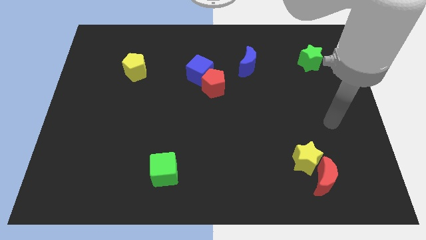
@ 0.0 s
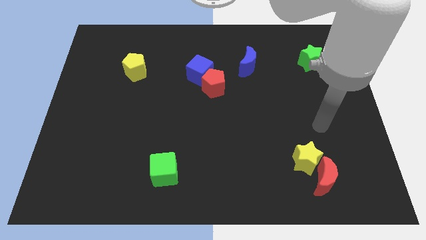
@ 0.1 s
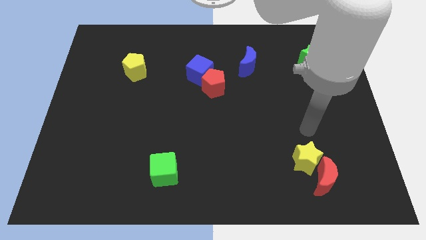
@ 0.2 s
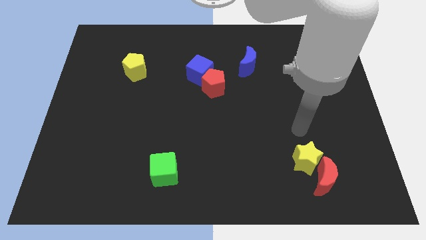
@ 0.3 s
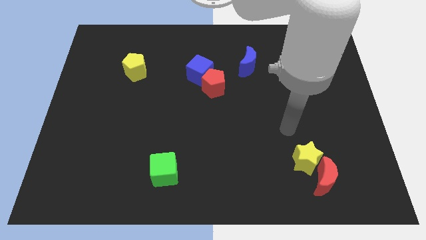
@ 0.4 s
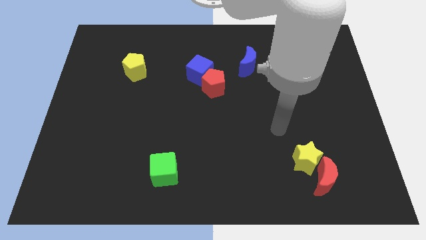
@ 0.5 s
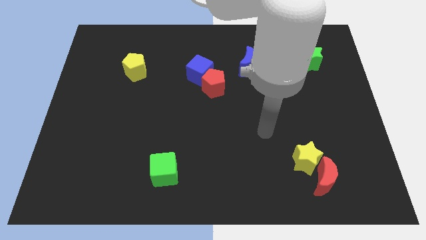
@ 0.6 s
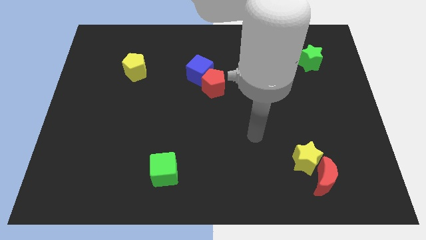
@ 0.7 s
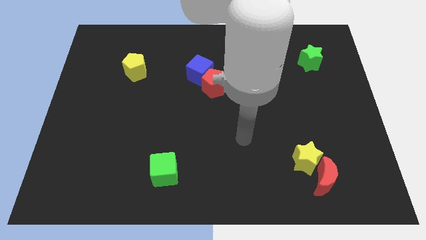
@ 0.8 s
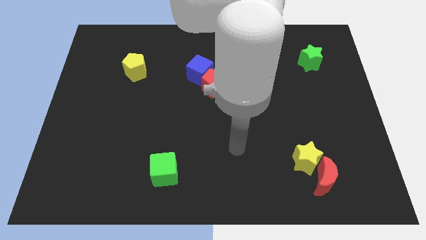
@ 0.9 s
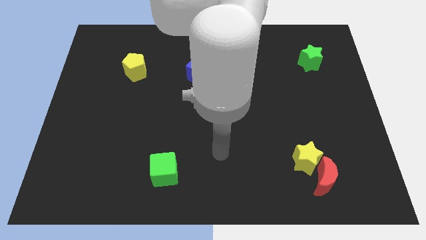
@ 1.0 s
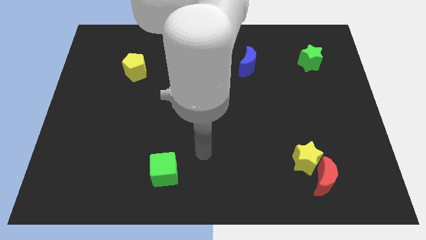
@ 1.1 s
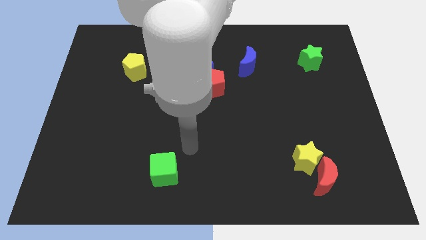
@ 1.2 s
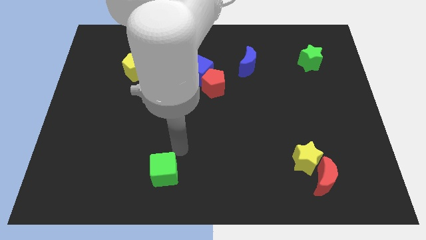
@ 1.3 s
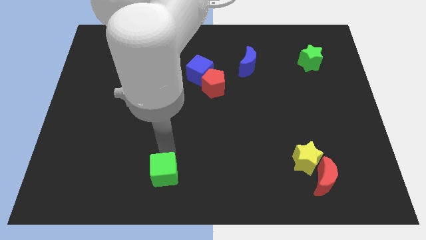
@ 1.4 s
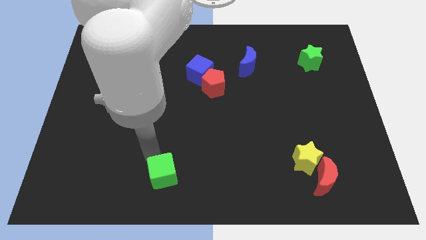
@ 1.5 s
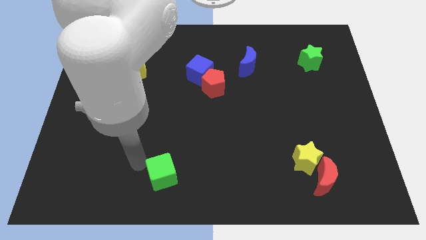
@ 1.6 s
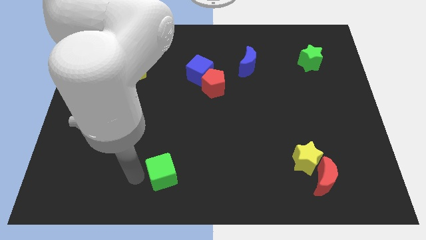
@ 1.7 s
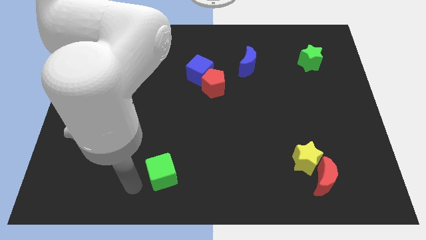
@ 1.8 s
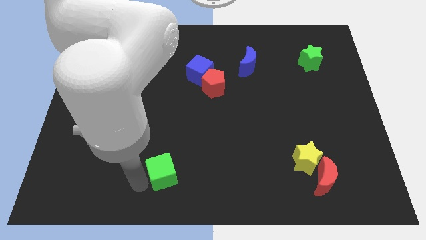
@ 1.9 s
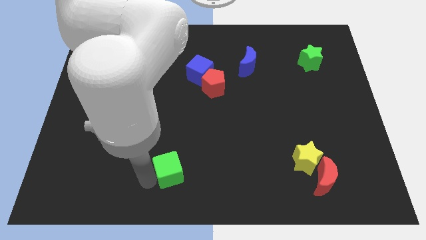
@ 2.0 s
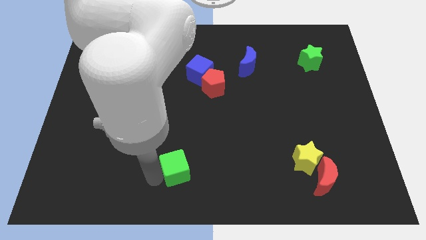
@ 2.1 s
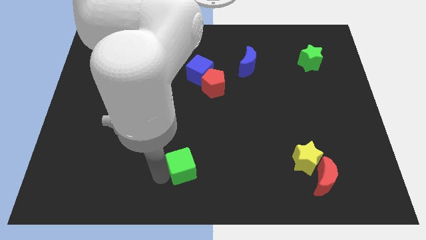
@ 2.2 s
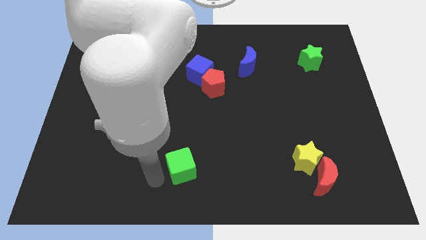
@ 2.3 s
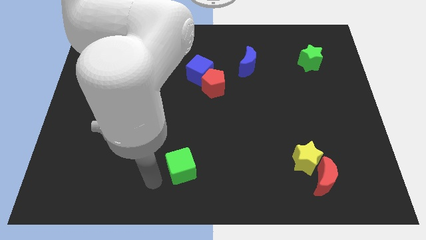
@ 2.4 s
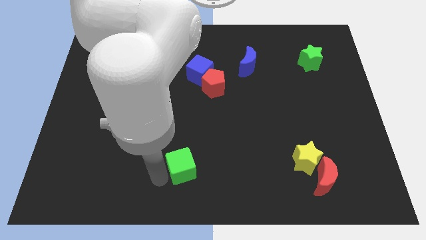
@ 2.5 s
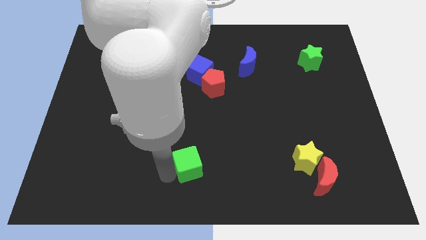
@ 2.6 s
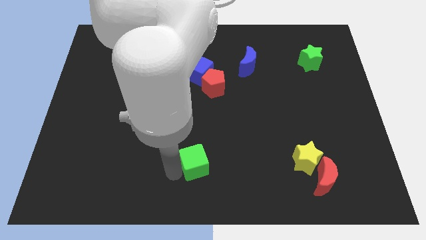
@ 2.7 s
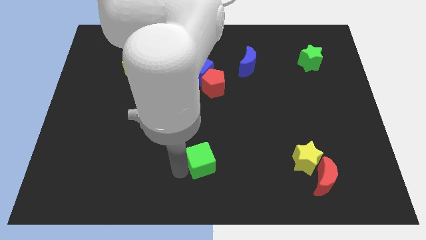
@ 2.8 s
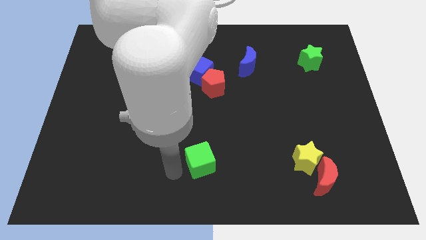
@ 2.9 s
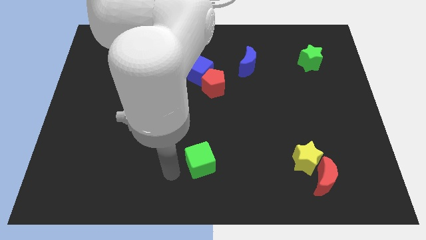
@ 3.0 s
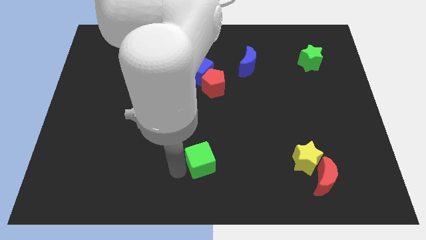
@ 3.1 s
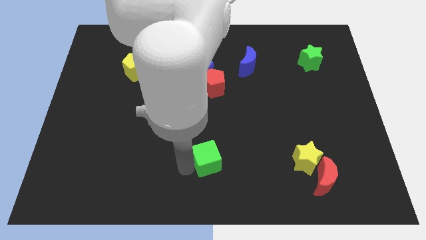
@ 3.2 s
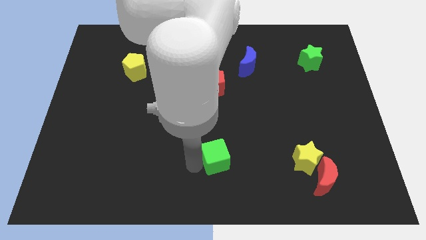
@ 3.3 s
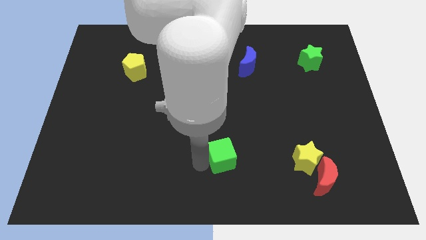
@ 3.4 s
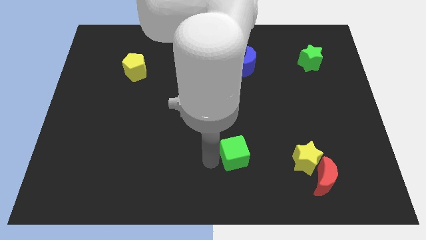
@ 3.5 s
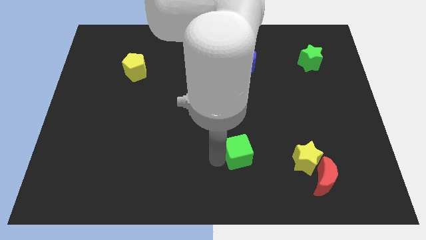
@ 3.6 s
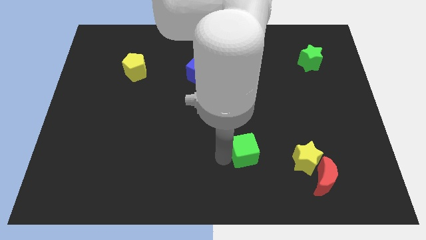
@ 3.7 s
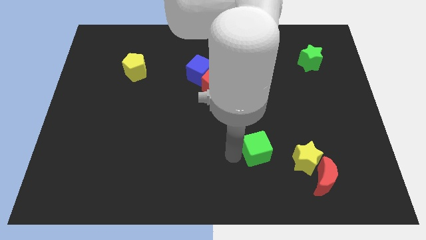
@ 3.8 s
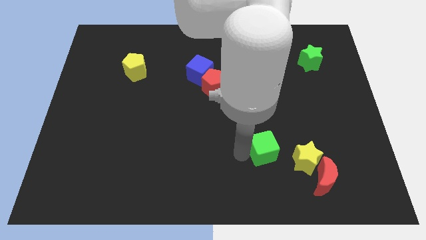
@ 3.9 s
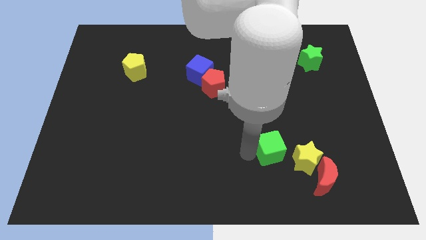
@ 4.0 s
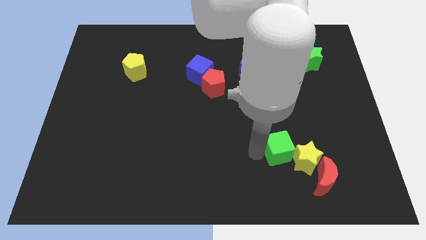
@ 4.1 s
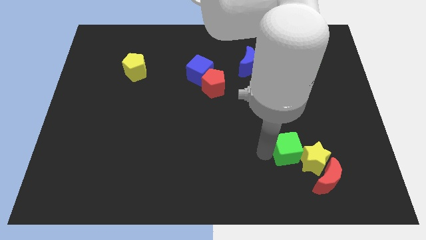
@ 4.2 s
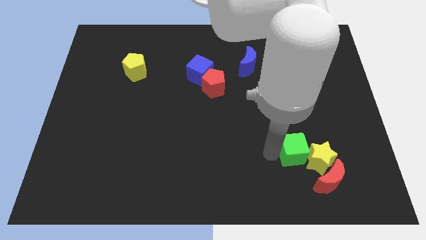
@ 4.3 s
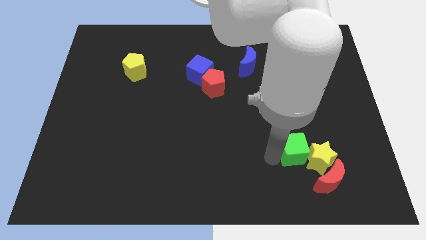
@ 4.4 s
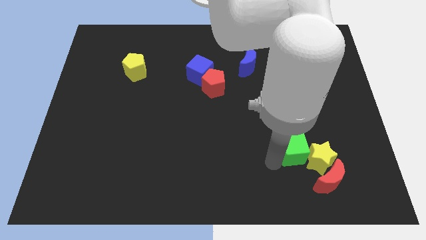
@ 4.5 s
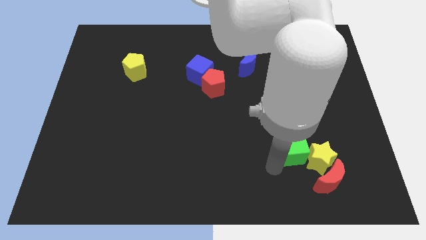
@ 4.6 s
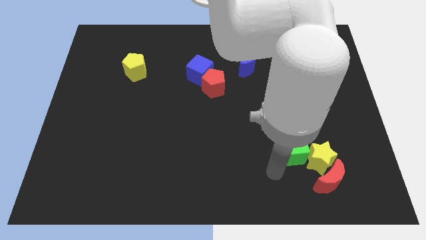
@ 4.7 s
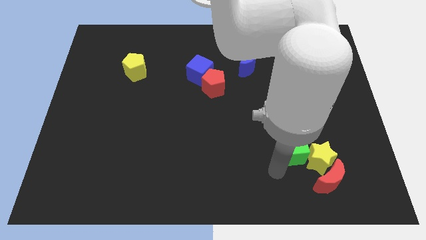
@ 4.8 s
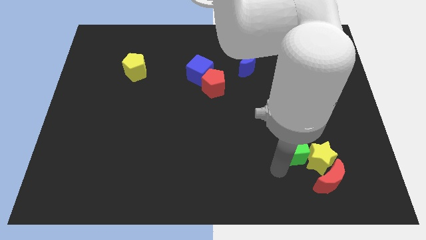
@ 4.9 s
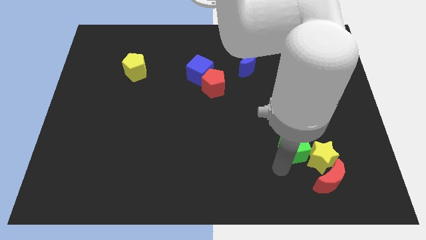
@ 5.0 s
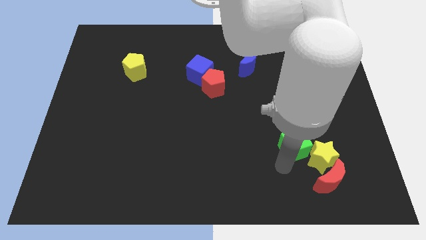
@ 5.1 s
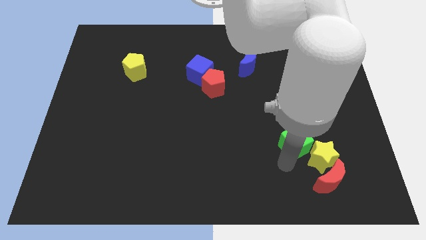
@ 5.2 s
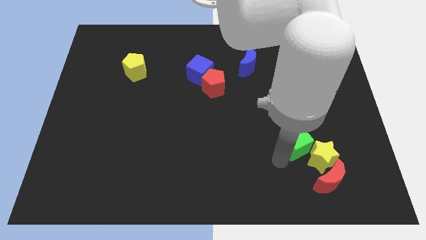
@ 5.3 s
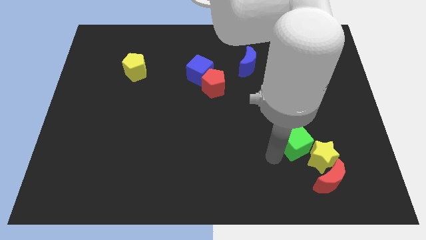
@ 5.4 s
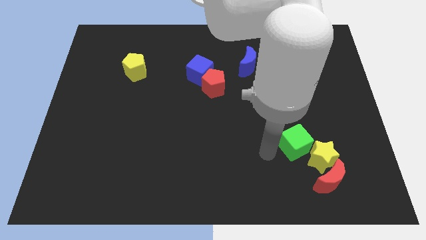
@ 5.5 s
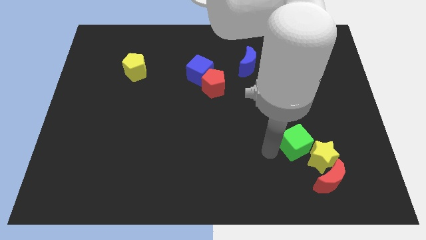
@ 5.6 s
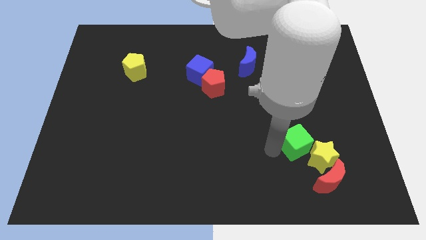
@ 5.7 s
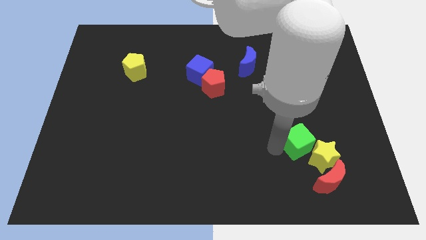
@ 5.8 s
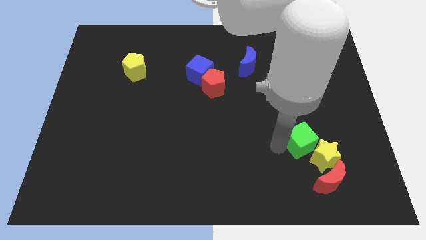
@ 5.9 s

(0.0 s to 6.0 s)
slide the green cube to the top of the red moon

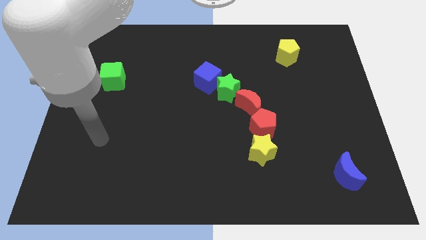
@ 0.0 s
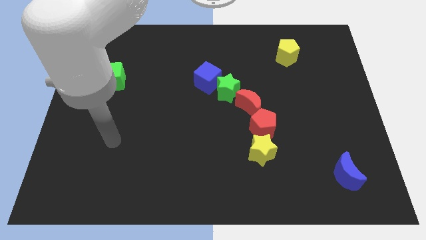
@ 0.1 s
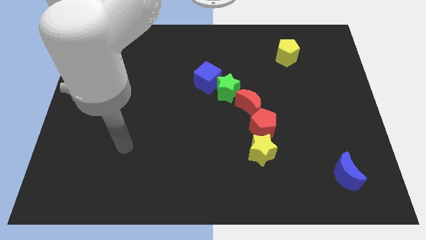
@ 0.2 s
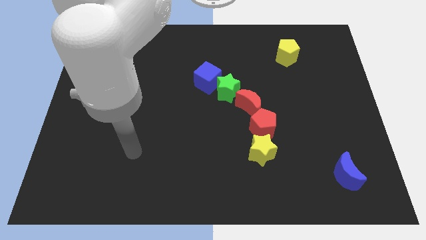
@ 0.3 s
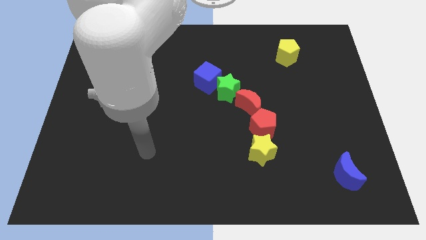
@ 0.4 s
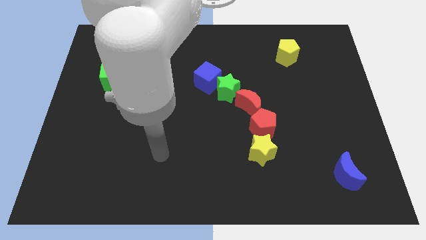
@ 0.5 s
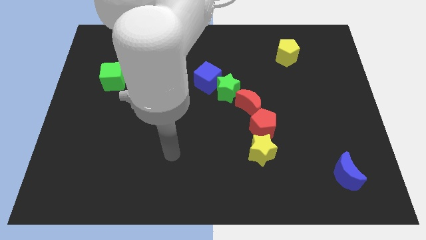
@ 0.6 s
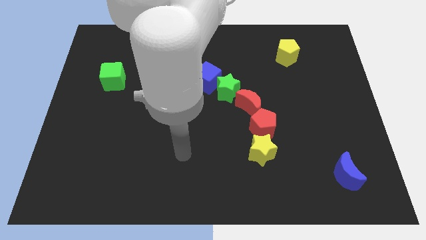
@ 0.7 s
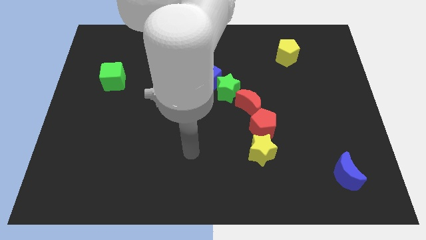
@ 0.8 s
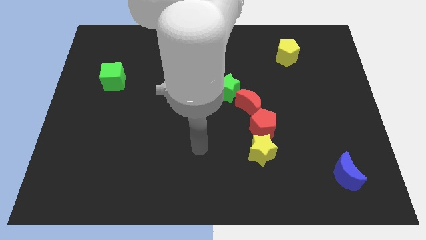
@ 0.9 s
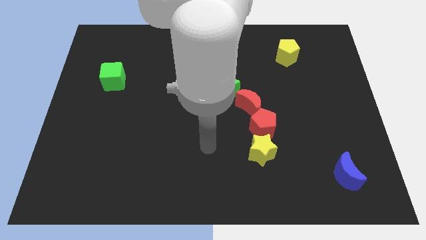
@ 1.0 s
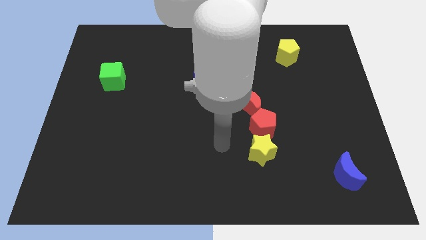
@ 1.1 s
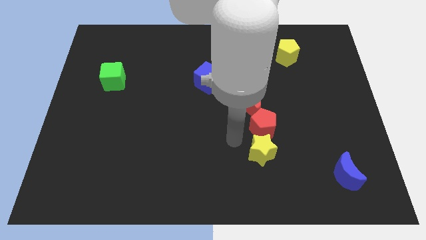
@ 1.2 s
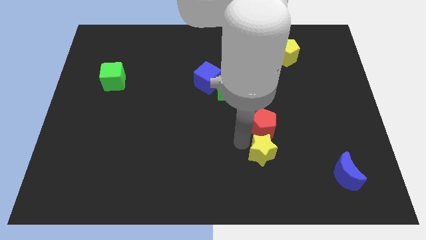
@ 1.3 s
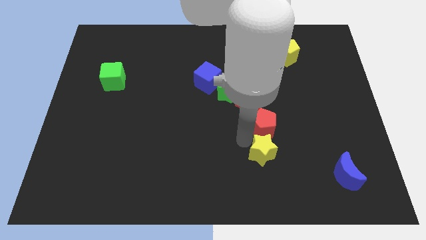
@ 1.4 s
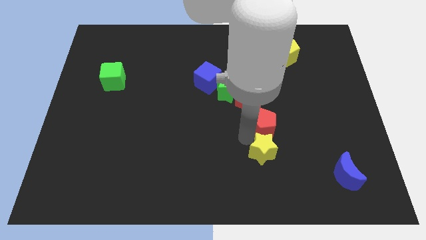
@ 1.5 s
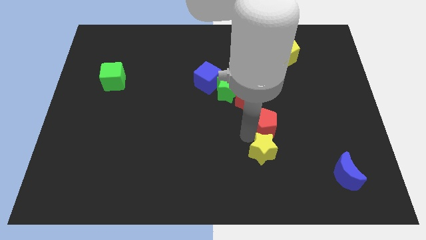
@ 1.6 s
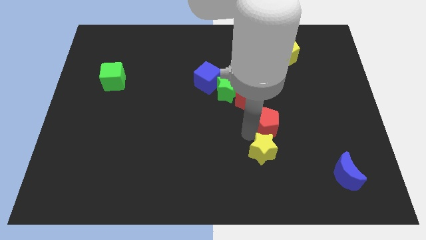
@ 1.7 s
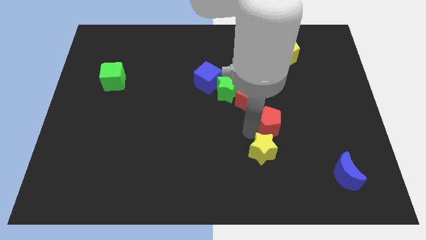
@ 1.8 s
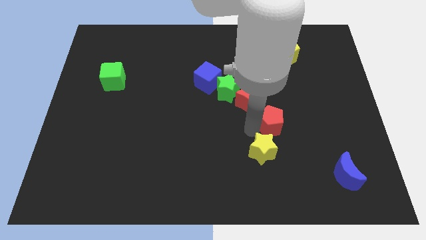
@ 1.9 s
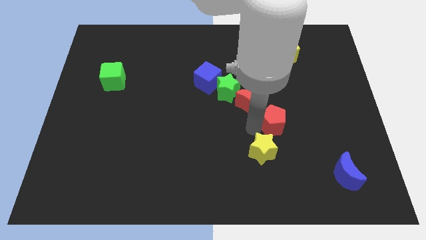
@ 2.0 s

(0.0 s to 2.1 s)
put the red pentagon right of the red moon
